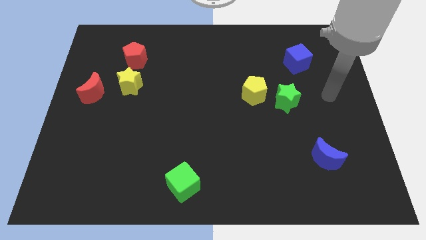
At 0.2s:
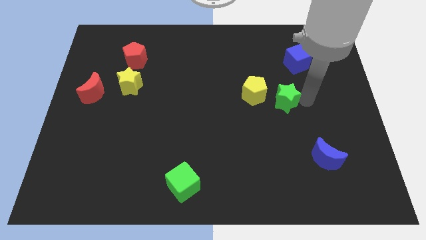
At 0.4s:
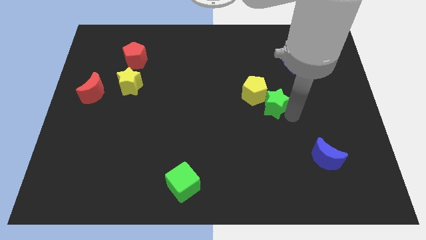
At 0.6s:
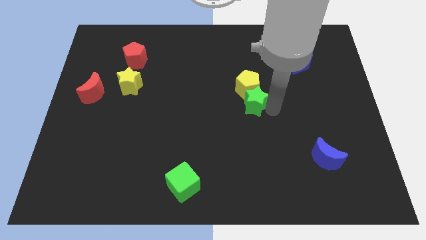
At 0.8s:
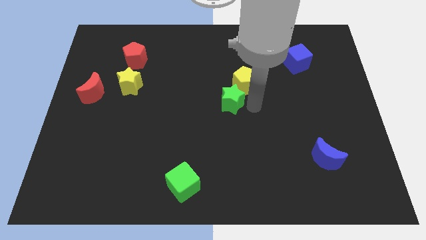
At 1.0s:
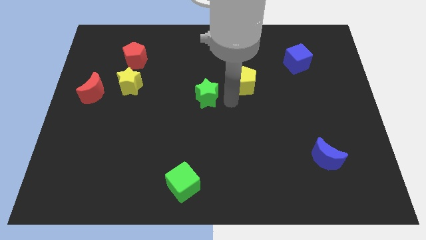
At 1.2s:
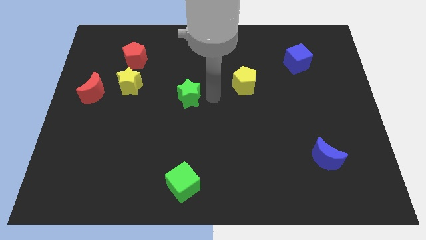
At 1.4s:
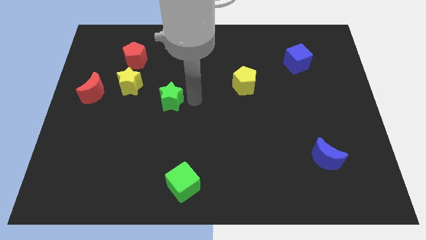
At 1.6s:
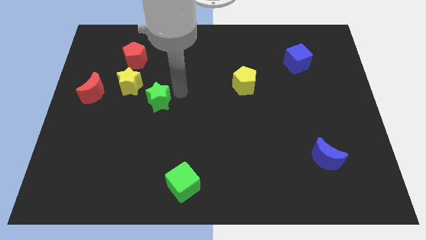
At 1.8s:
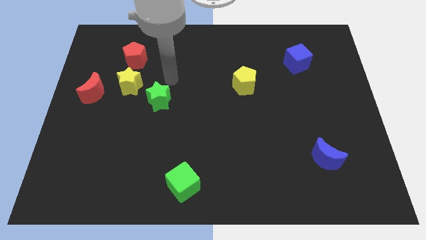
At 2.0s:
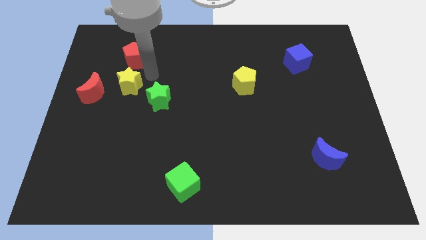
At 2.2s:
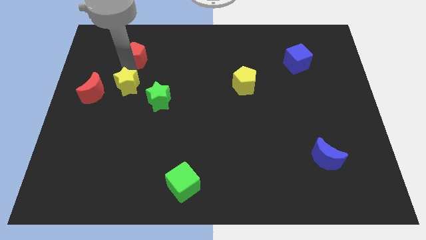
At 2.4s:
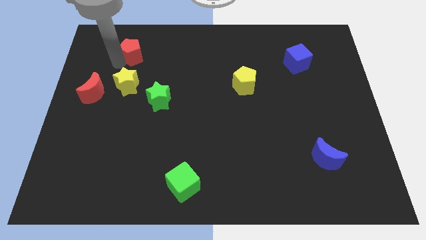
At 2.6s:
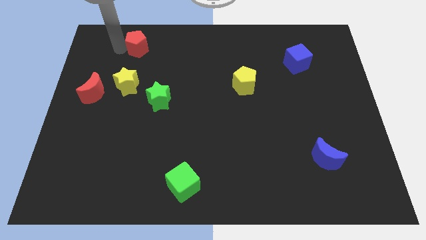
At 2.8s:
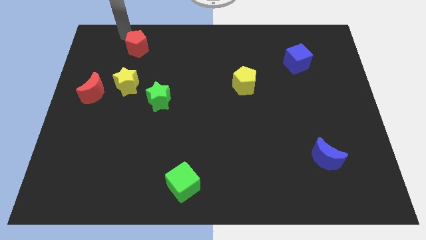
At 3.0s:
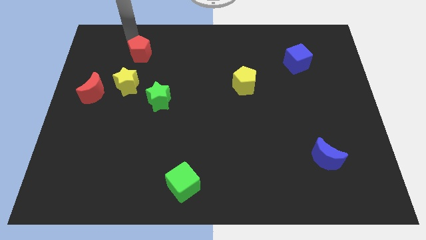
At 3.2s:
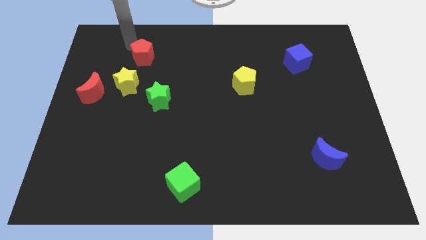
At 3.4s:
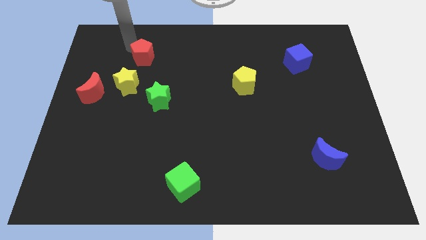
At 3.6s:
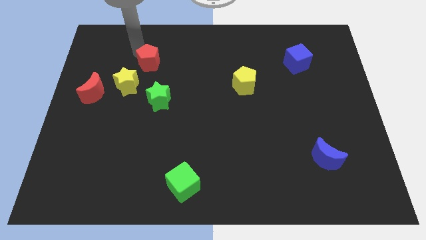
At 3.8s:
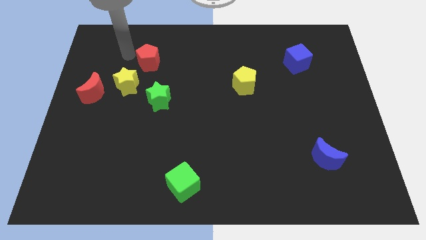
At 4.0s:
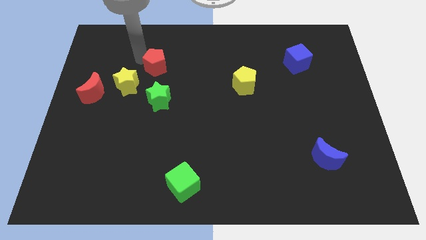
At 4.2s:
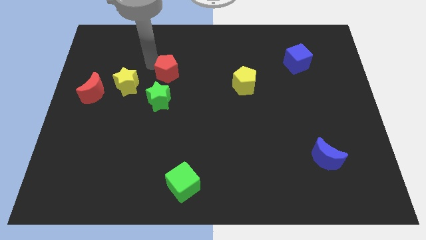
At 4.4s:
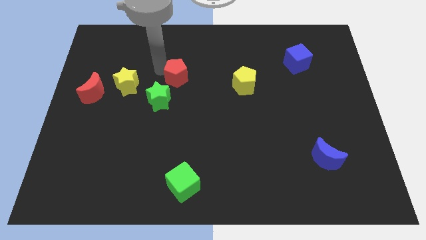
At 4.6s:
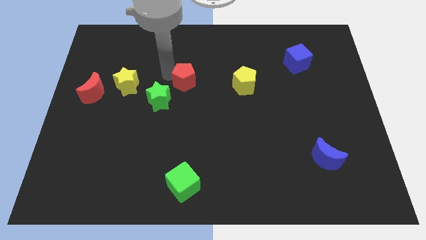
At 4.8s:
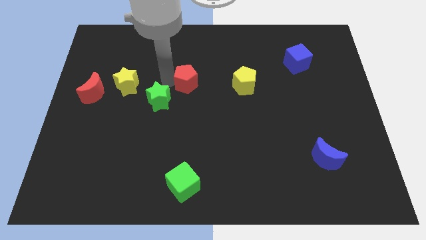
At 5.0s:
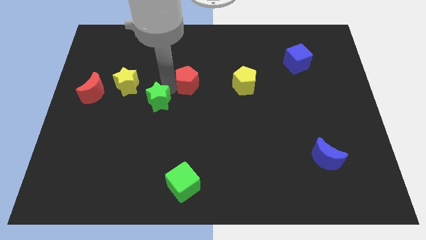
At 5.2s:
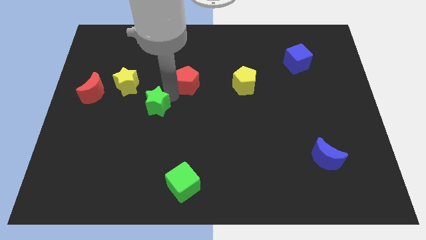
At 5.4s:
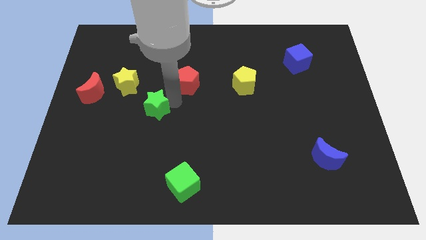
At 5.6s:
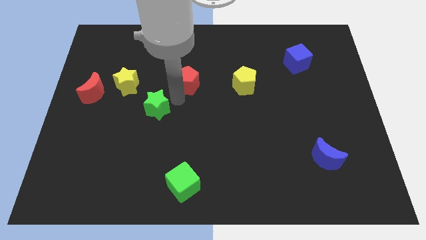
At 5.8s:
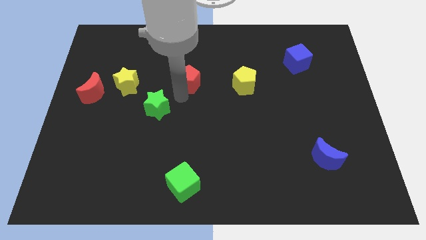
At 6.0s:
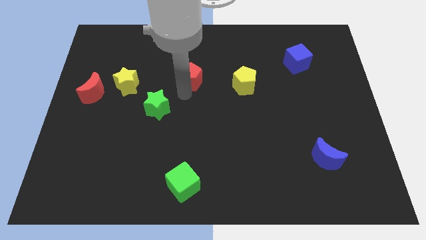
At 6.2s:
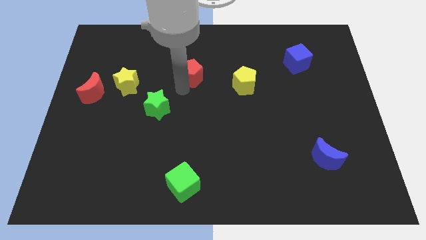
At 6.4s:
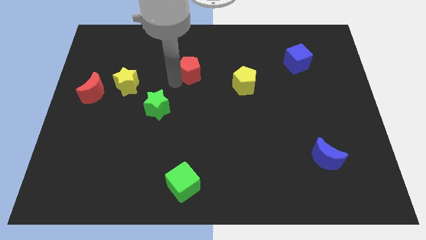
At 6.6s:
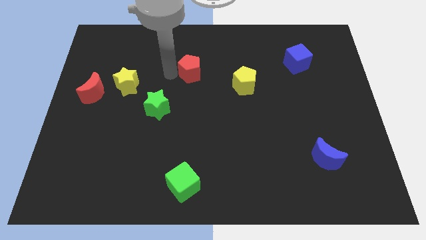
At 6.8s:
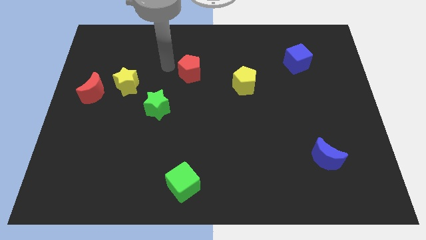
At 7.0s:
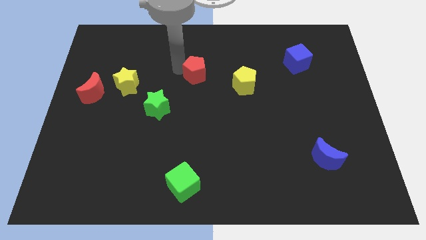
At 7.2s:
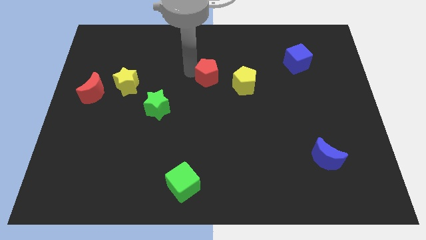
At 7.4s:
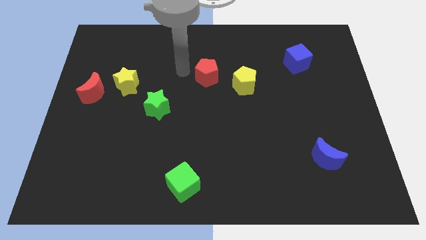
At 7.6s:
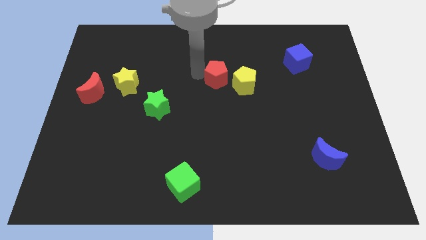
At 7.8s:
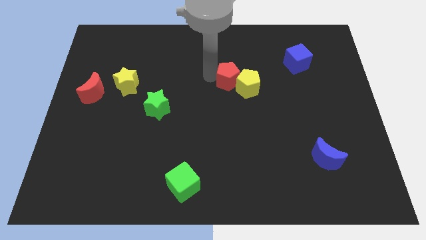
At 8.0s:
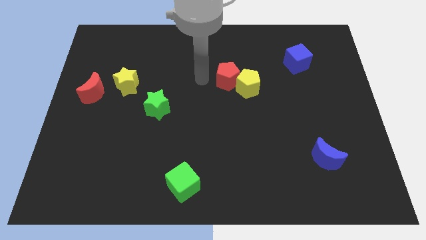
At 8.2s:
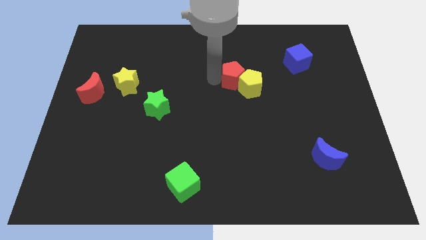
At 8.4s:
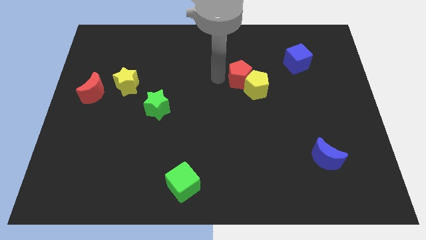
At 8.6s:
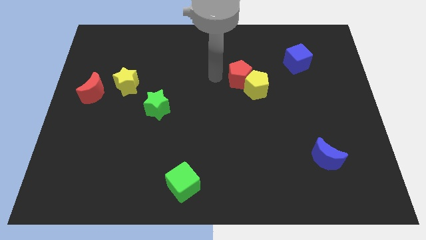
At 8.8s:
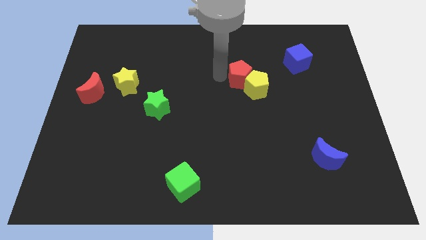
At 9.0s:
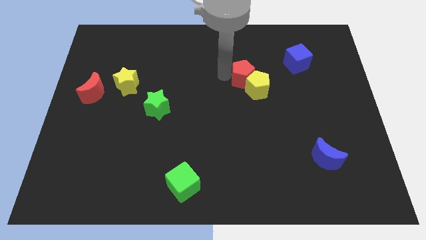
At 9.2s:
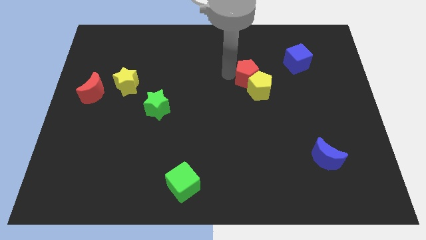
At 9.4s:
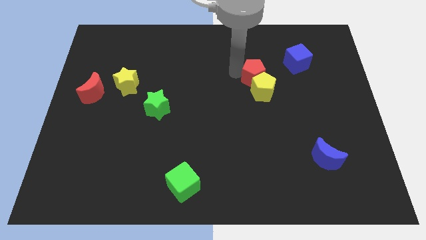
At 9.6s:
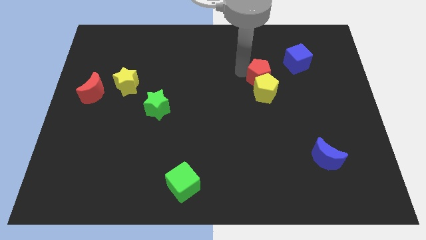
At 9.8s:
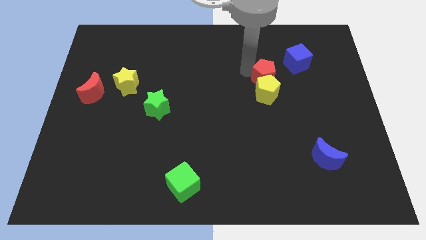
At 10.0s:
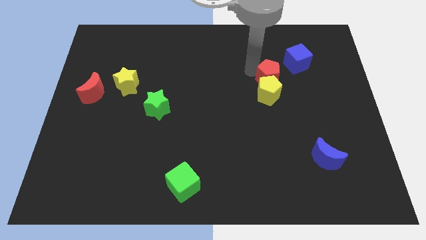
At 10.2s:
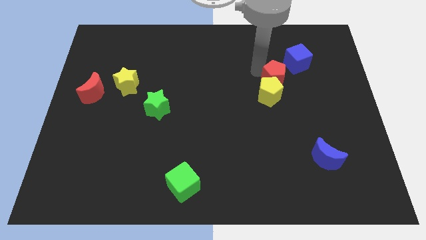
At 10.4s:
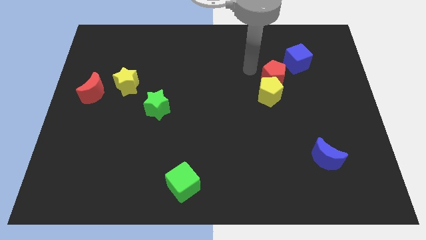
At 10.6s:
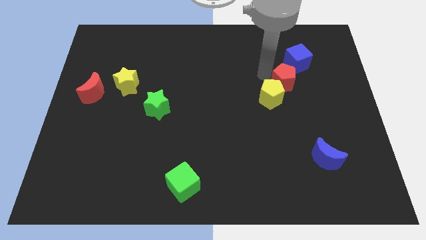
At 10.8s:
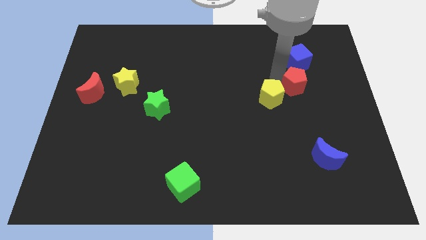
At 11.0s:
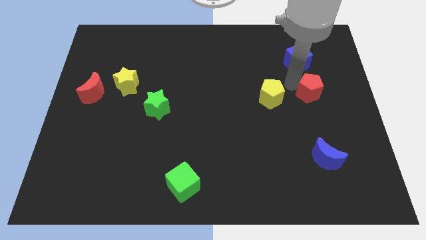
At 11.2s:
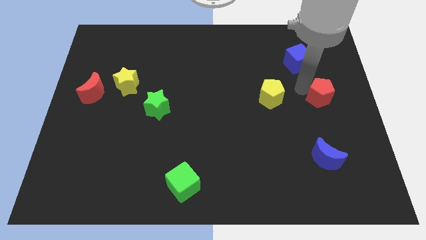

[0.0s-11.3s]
put the red pentagon to the center right
